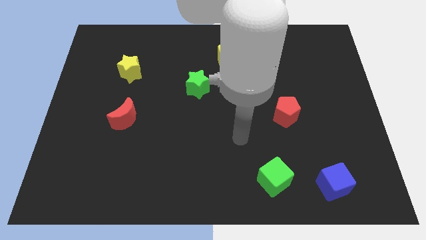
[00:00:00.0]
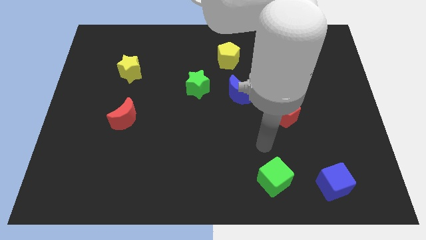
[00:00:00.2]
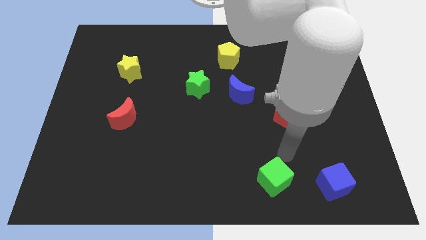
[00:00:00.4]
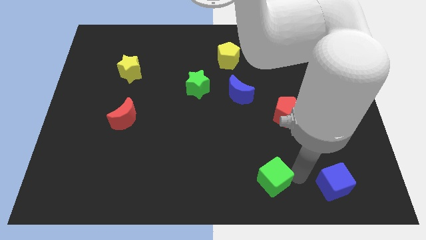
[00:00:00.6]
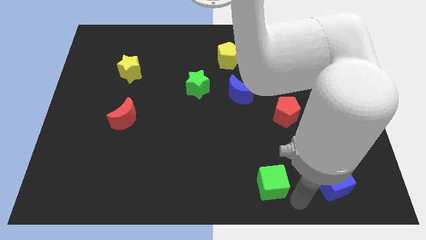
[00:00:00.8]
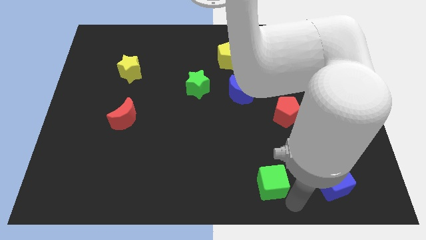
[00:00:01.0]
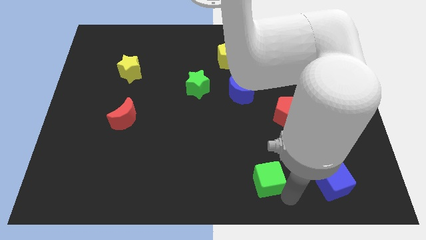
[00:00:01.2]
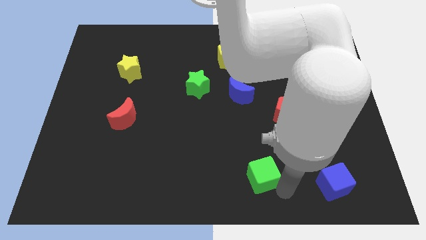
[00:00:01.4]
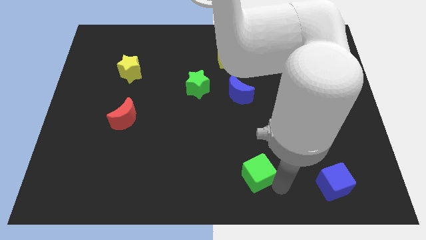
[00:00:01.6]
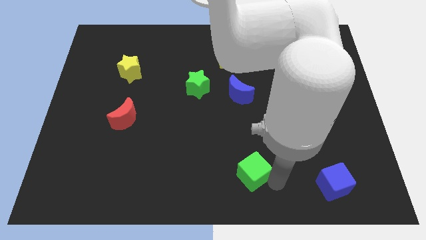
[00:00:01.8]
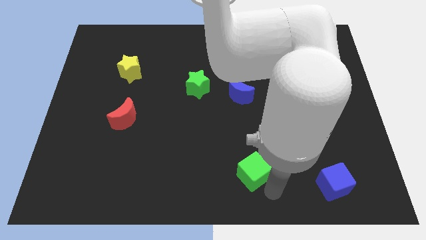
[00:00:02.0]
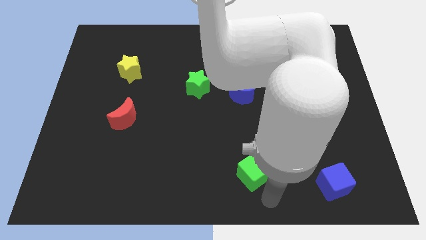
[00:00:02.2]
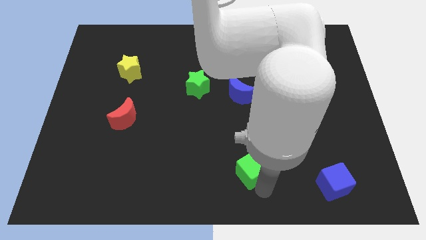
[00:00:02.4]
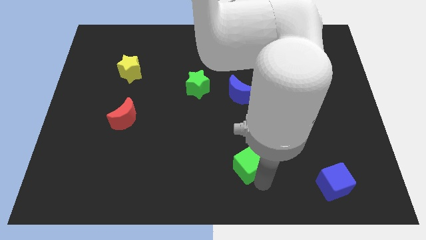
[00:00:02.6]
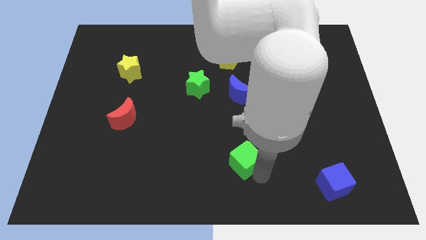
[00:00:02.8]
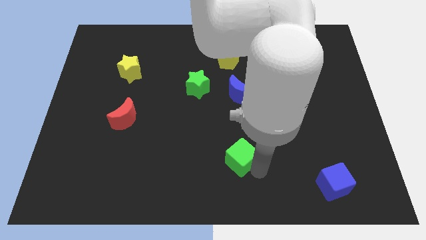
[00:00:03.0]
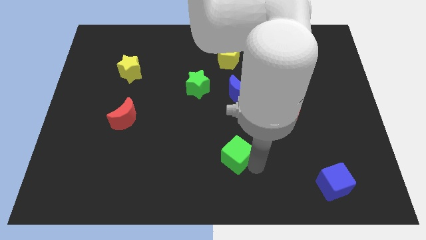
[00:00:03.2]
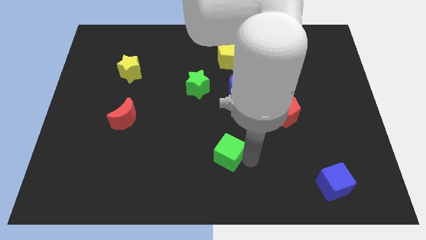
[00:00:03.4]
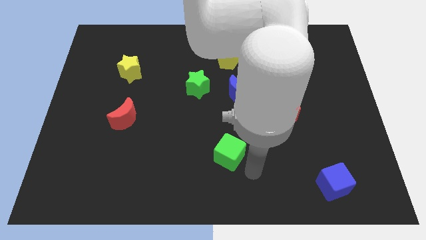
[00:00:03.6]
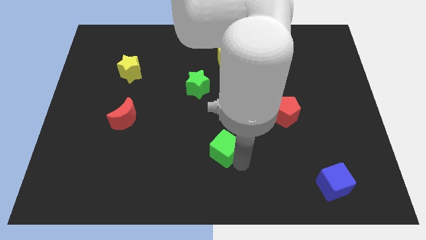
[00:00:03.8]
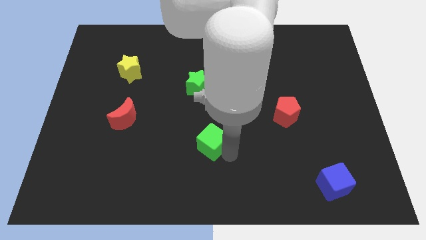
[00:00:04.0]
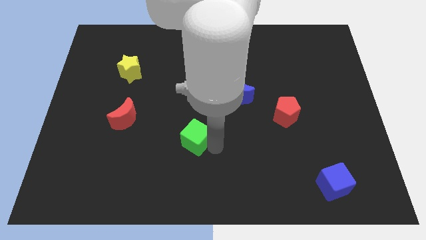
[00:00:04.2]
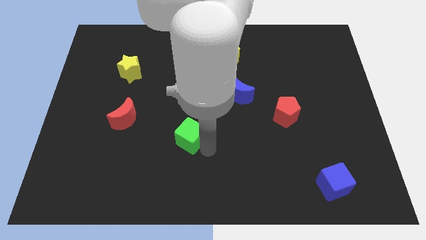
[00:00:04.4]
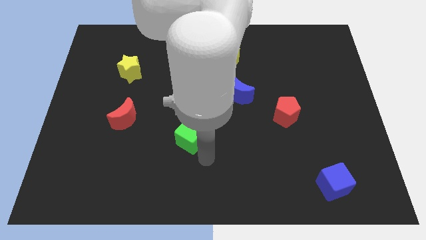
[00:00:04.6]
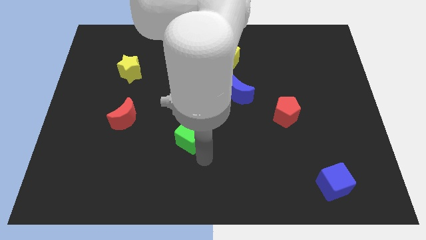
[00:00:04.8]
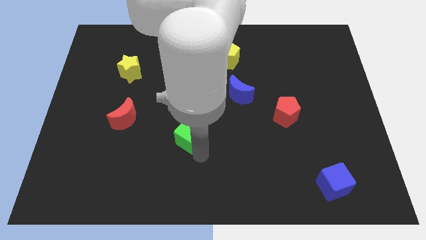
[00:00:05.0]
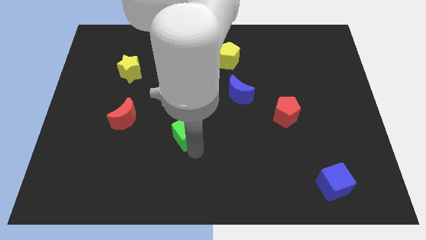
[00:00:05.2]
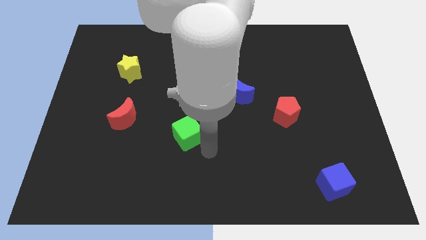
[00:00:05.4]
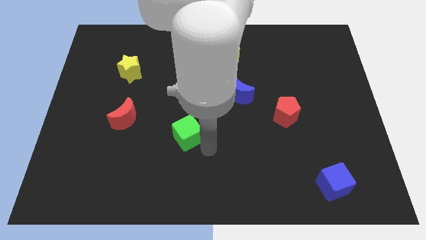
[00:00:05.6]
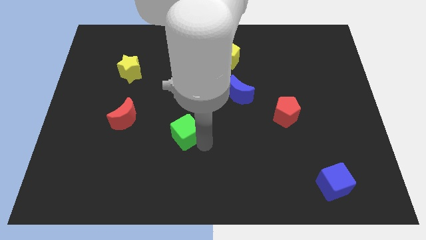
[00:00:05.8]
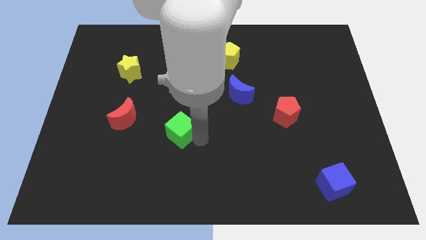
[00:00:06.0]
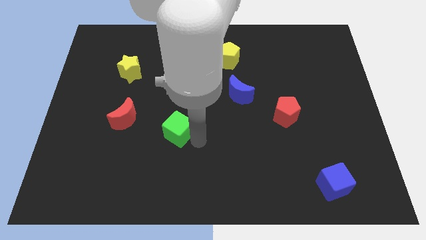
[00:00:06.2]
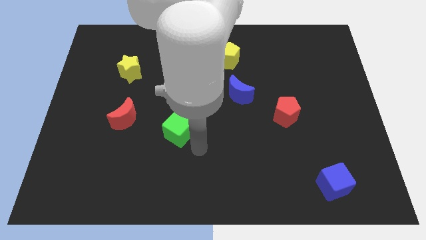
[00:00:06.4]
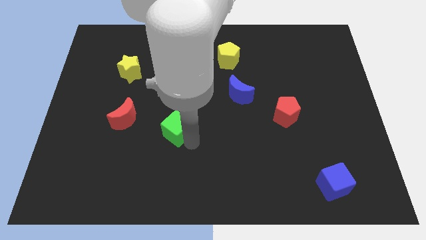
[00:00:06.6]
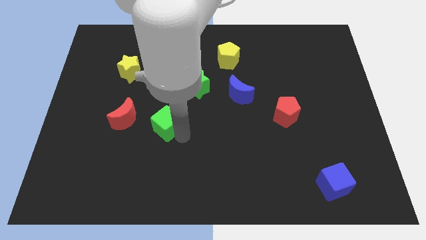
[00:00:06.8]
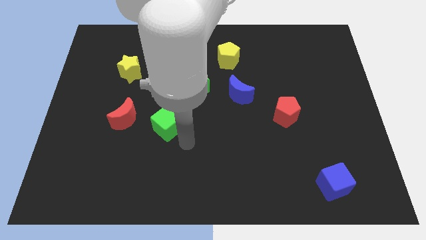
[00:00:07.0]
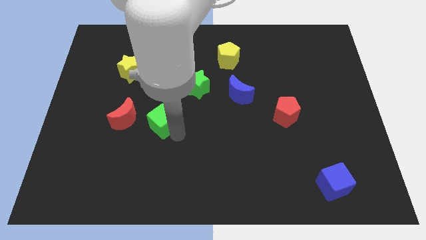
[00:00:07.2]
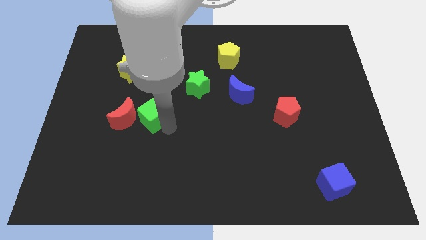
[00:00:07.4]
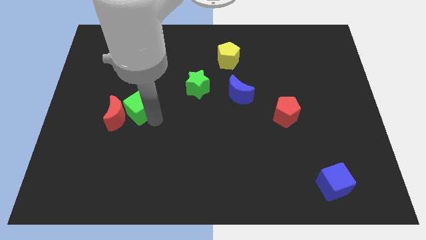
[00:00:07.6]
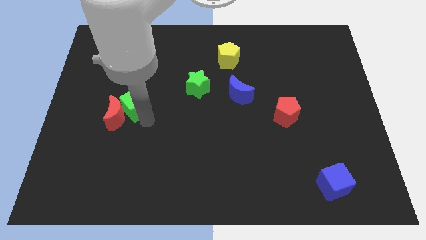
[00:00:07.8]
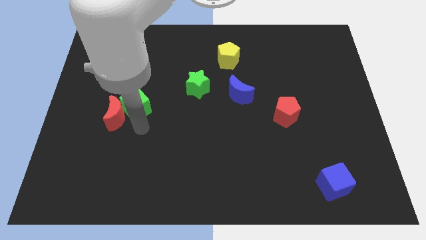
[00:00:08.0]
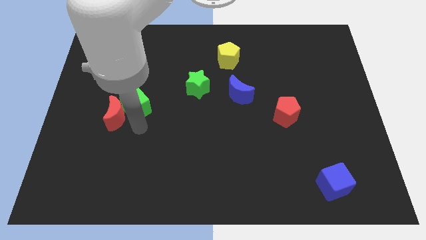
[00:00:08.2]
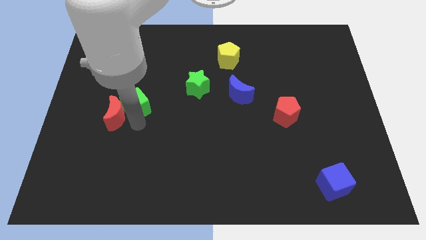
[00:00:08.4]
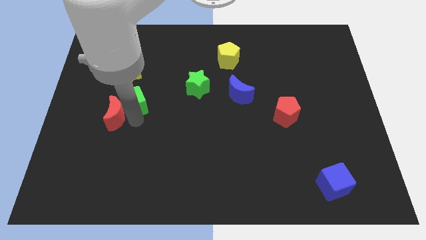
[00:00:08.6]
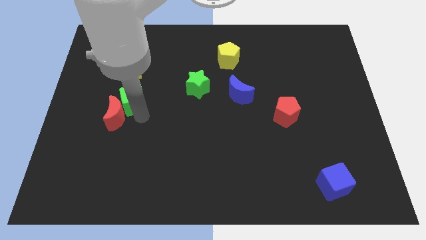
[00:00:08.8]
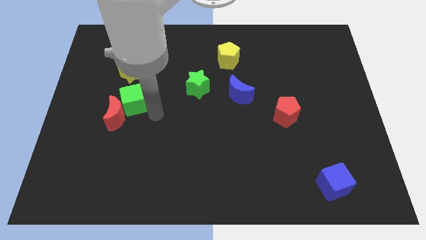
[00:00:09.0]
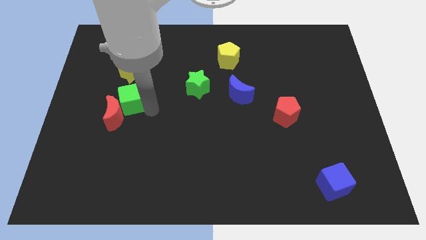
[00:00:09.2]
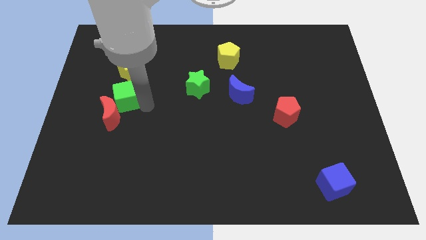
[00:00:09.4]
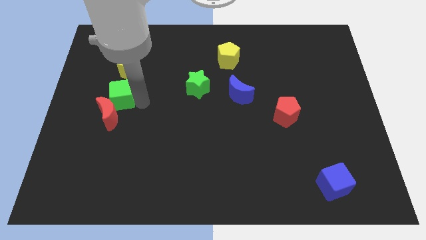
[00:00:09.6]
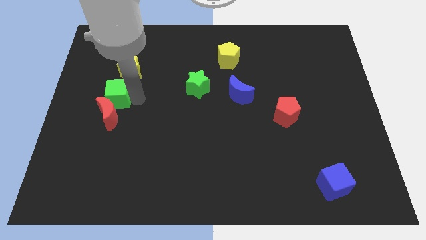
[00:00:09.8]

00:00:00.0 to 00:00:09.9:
slide the green cube diagonally down and to the left of the yellow star

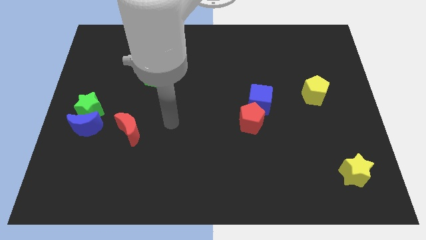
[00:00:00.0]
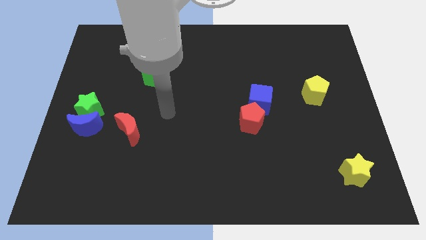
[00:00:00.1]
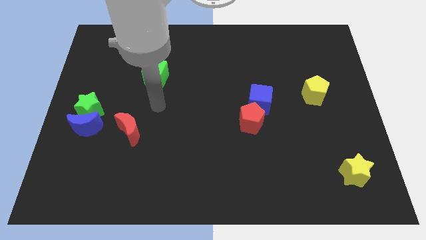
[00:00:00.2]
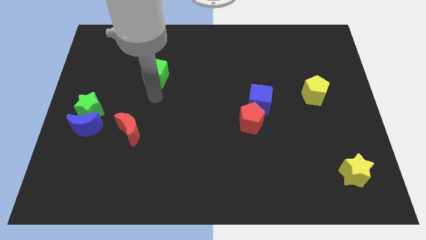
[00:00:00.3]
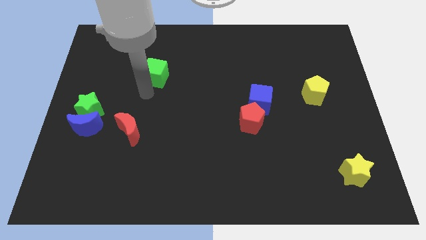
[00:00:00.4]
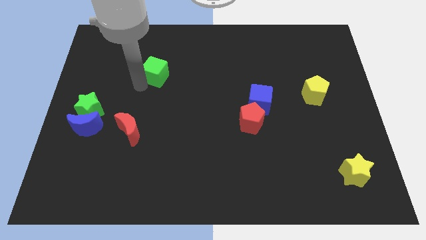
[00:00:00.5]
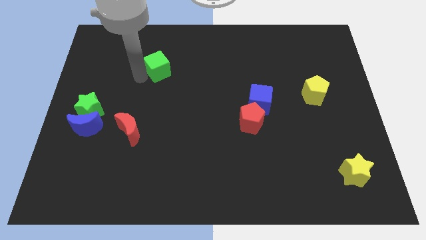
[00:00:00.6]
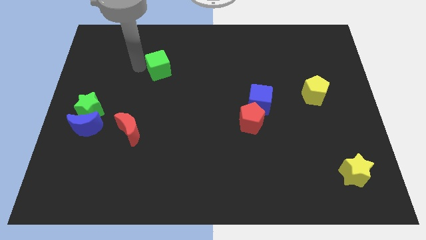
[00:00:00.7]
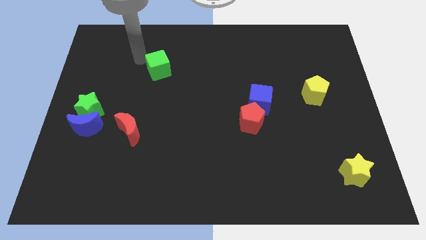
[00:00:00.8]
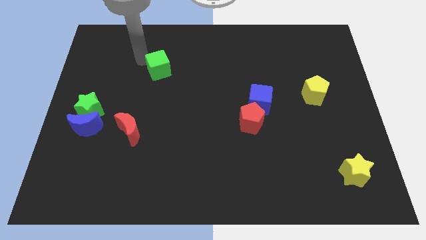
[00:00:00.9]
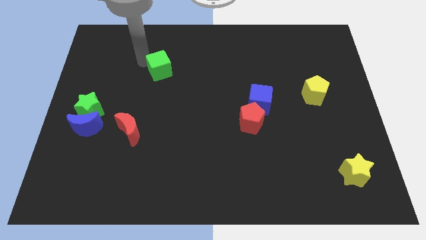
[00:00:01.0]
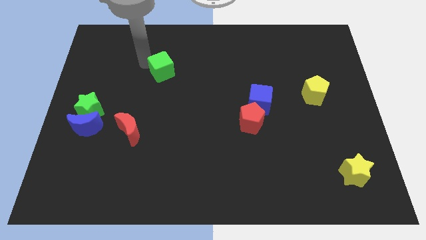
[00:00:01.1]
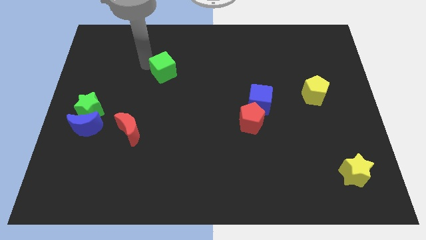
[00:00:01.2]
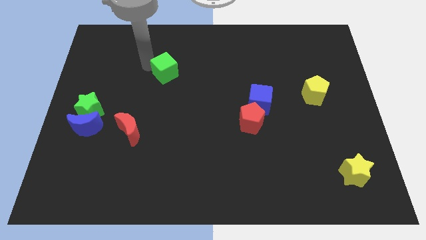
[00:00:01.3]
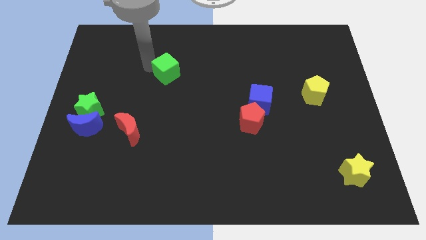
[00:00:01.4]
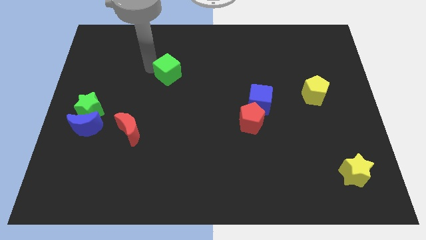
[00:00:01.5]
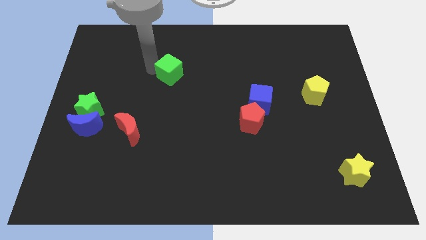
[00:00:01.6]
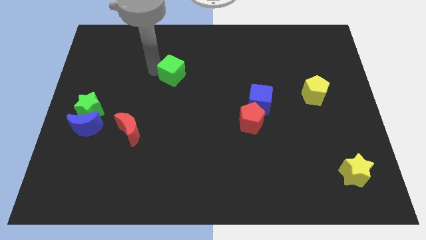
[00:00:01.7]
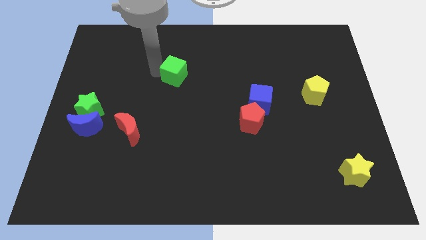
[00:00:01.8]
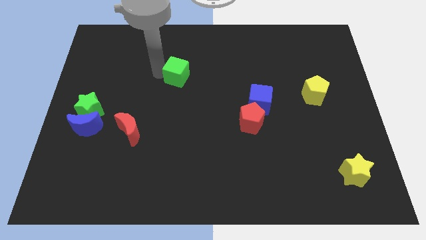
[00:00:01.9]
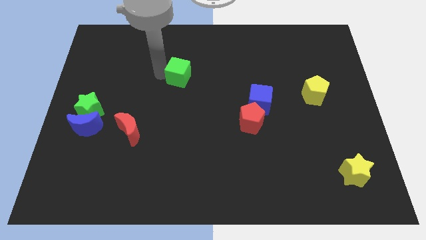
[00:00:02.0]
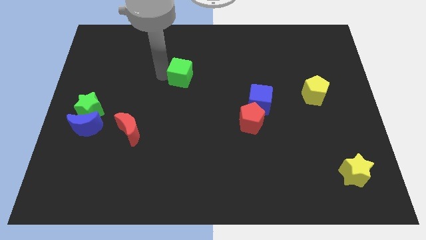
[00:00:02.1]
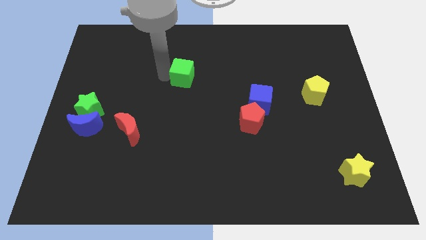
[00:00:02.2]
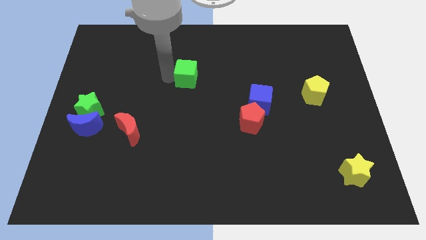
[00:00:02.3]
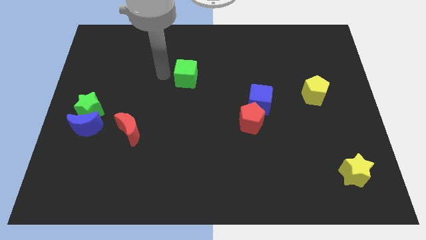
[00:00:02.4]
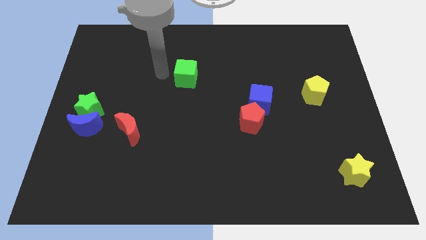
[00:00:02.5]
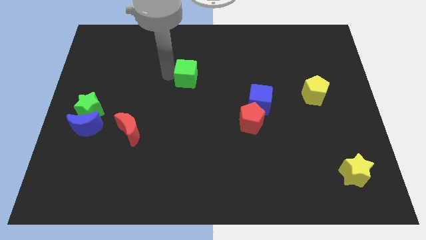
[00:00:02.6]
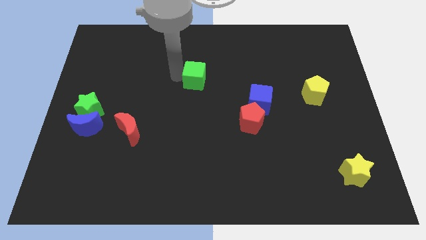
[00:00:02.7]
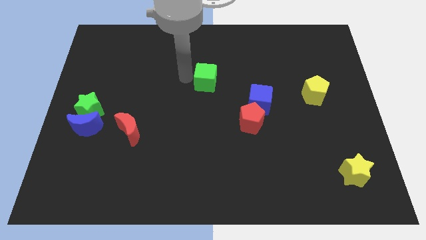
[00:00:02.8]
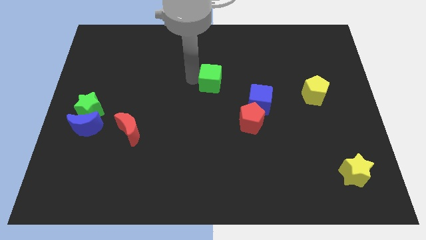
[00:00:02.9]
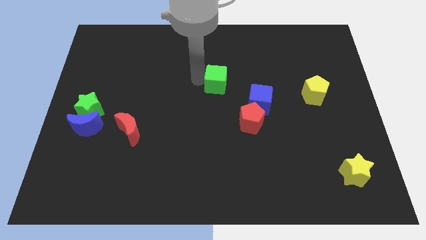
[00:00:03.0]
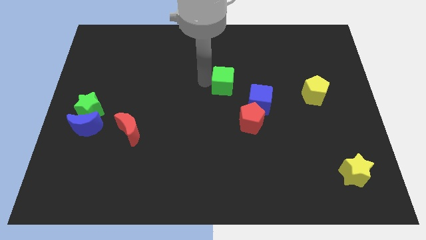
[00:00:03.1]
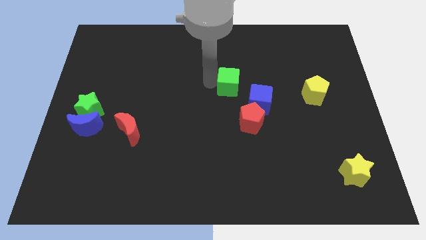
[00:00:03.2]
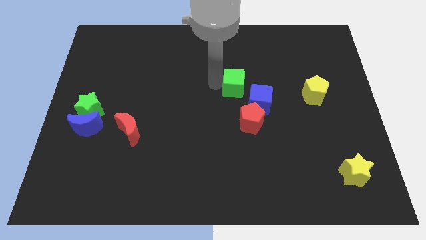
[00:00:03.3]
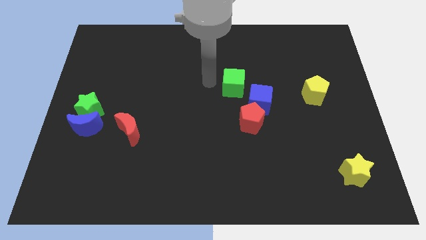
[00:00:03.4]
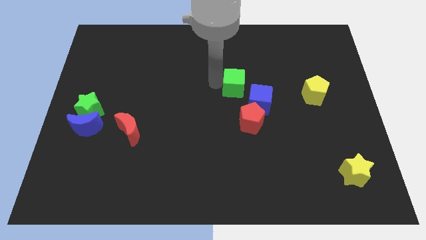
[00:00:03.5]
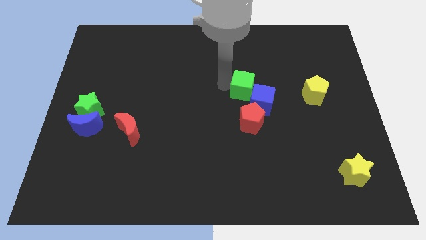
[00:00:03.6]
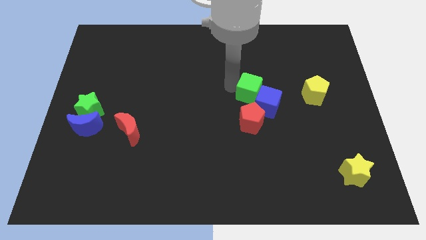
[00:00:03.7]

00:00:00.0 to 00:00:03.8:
move the green cube left of the yellow pentagon
